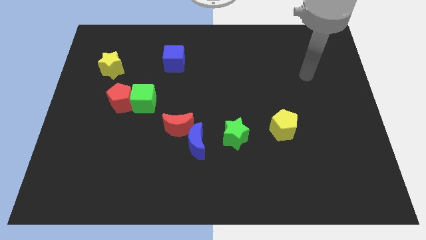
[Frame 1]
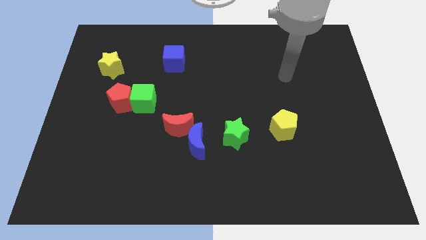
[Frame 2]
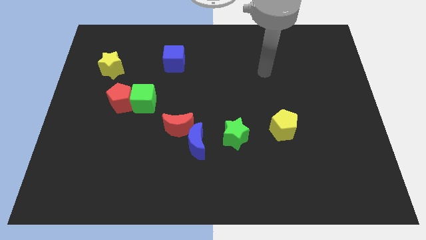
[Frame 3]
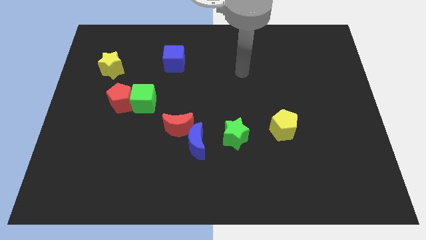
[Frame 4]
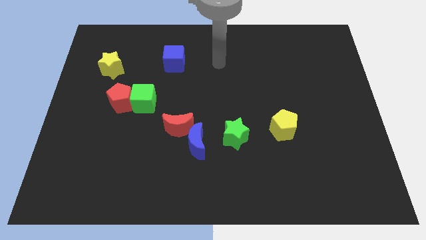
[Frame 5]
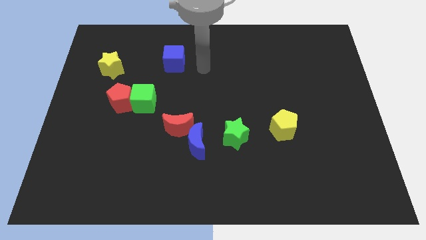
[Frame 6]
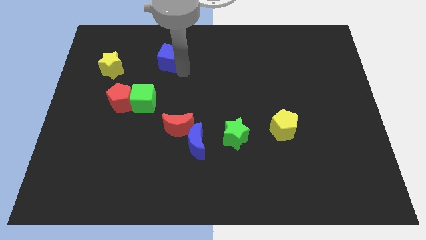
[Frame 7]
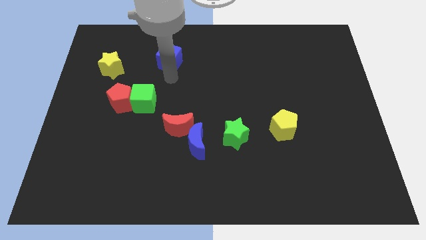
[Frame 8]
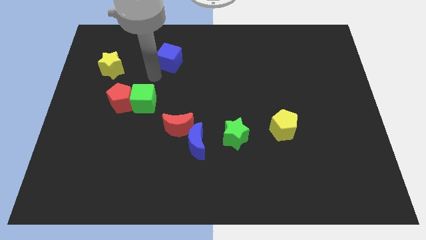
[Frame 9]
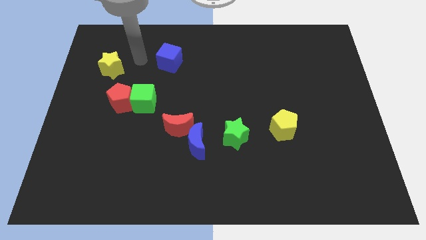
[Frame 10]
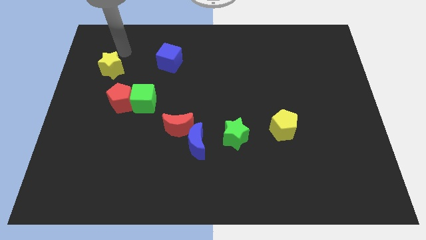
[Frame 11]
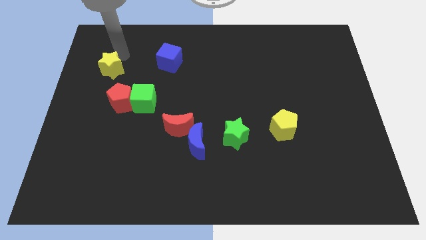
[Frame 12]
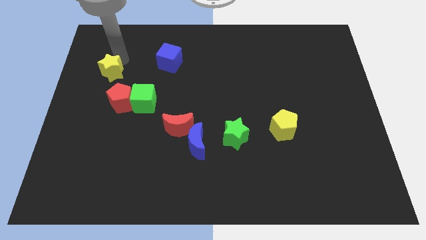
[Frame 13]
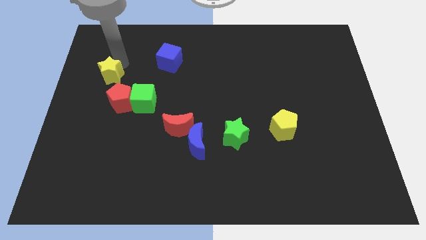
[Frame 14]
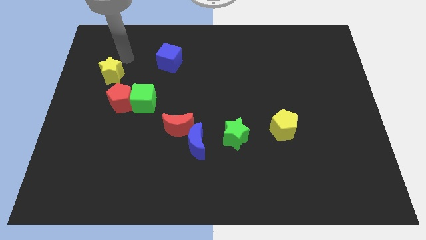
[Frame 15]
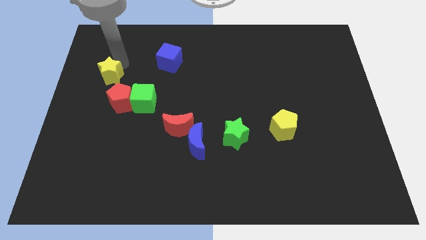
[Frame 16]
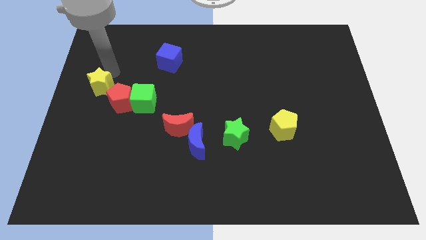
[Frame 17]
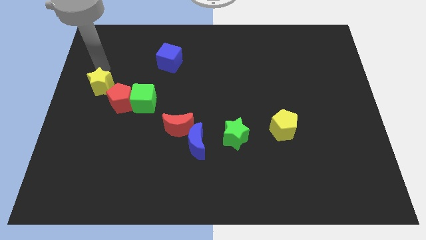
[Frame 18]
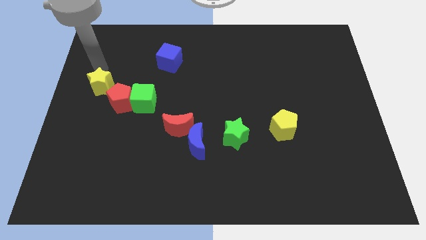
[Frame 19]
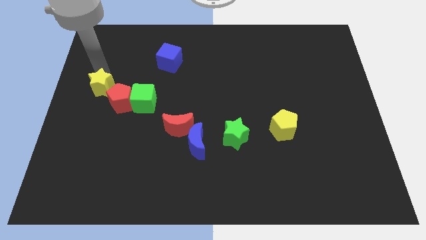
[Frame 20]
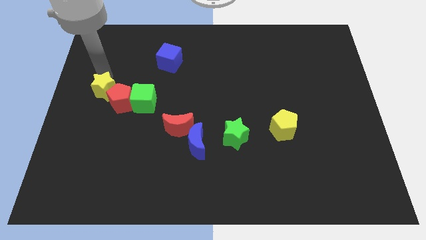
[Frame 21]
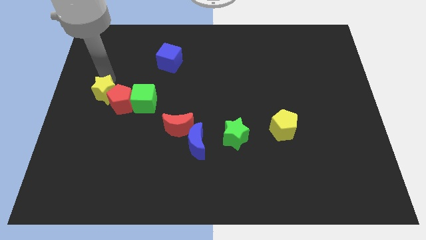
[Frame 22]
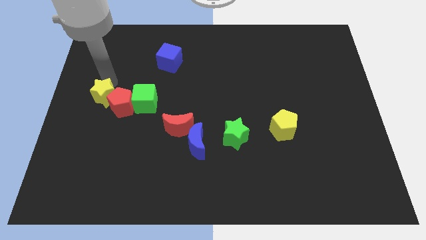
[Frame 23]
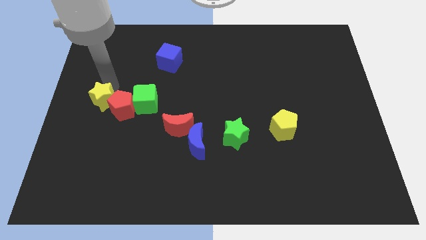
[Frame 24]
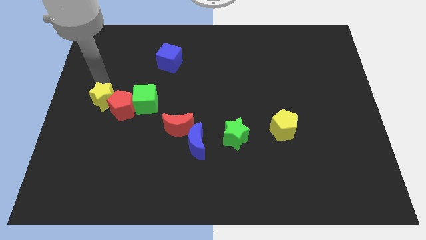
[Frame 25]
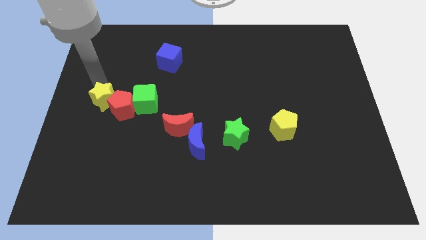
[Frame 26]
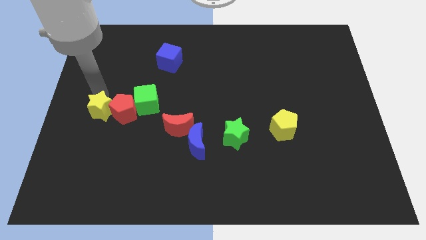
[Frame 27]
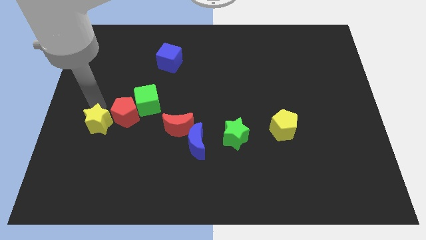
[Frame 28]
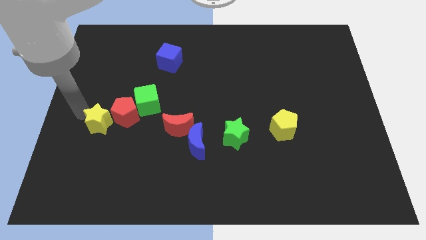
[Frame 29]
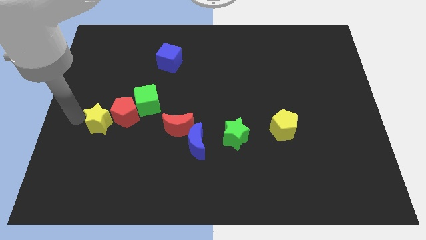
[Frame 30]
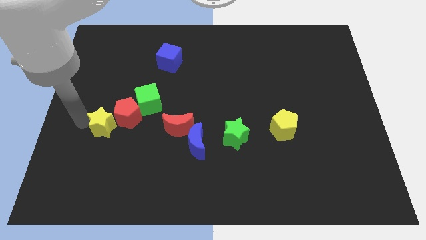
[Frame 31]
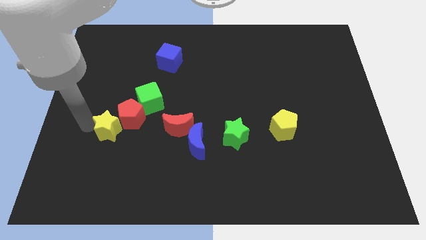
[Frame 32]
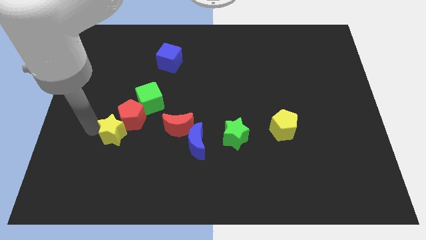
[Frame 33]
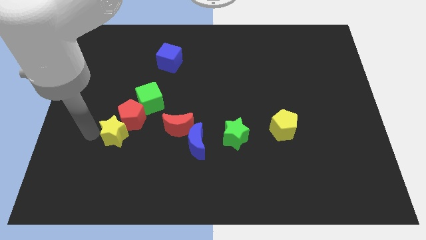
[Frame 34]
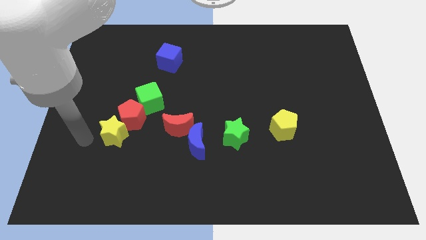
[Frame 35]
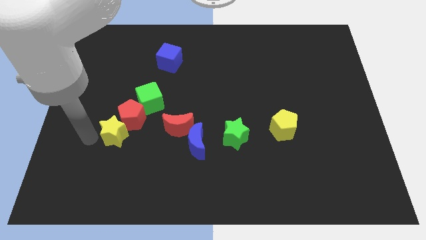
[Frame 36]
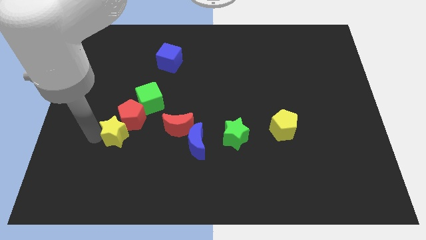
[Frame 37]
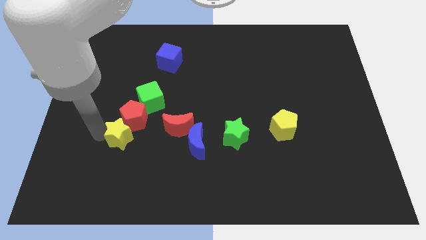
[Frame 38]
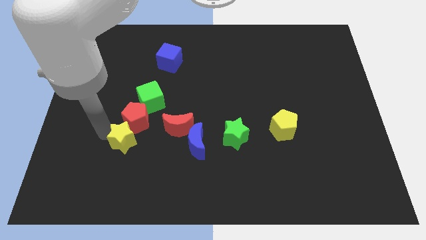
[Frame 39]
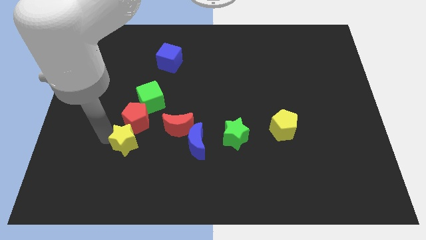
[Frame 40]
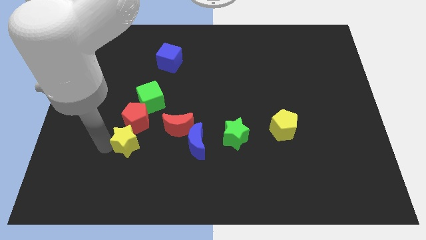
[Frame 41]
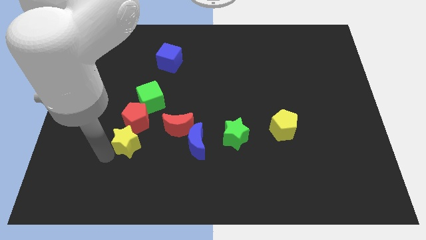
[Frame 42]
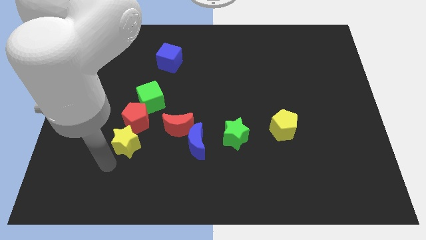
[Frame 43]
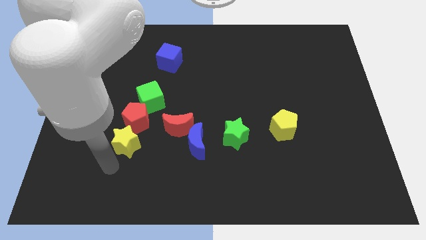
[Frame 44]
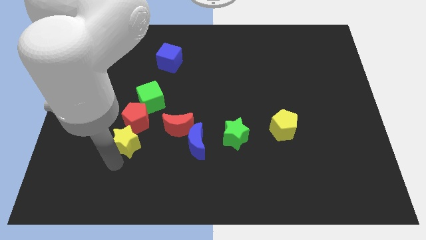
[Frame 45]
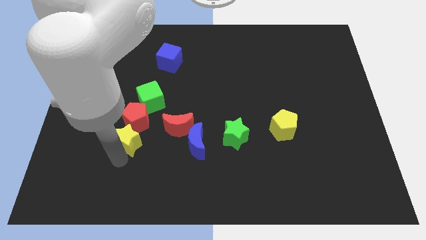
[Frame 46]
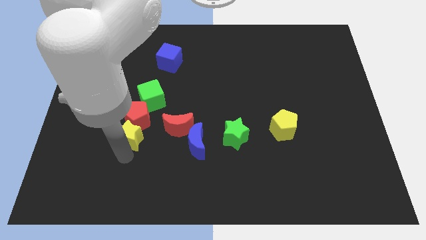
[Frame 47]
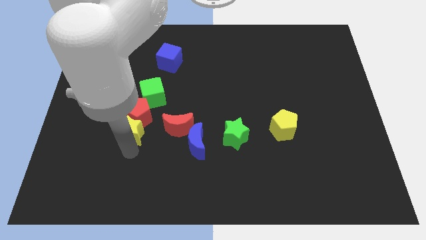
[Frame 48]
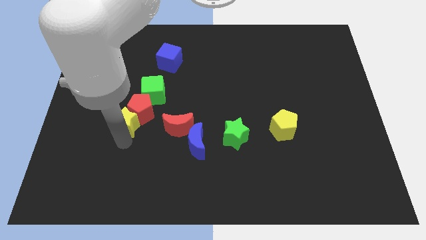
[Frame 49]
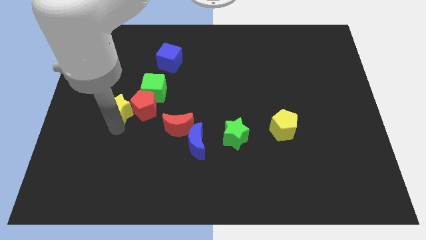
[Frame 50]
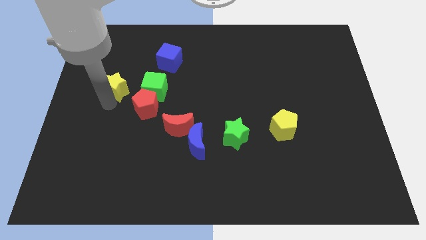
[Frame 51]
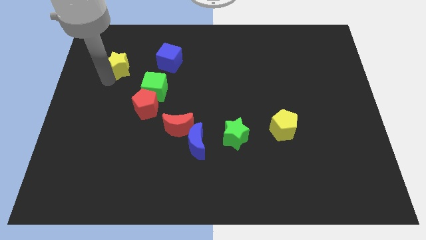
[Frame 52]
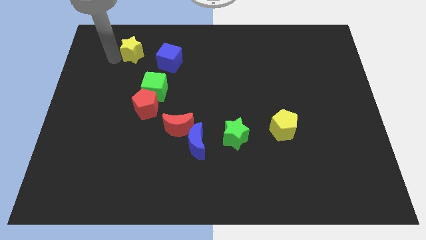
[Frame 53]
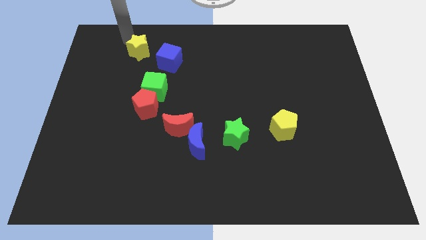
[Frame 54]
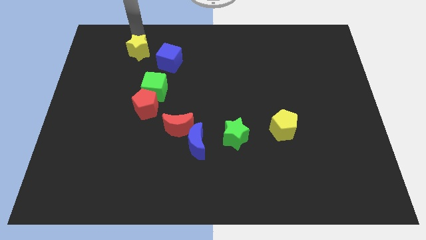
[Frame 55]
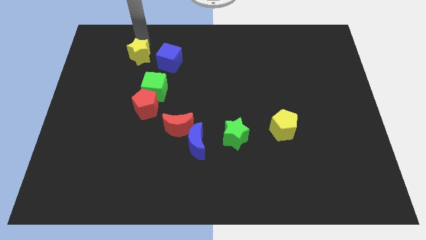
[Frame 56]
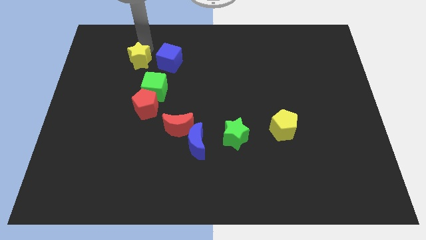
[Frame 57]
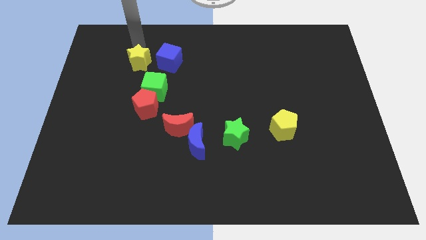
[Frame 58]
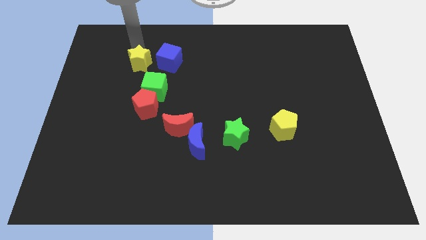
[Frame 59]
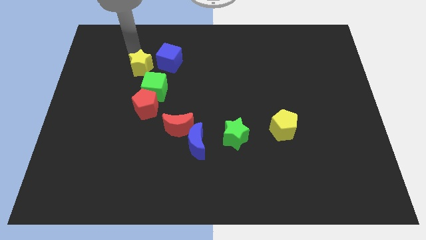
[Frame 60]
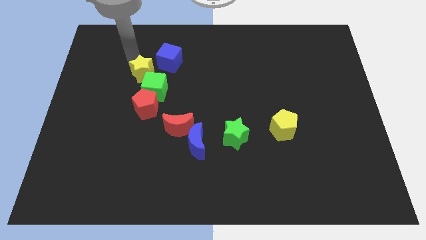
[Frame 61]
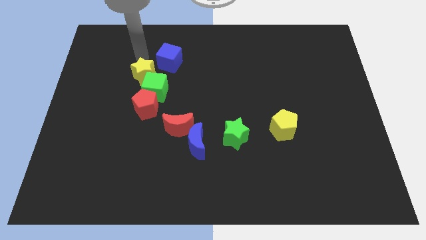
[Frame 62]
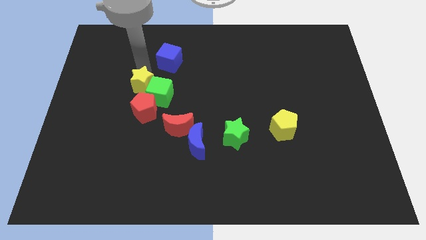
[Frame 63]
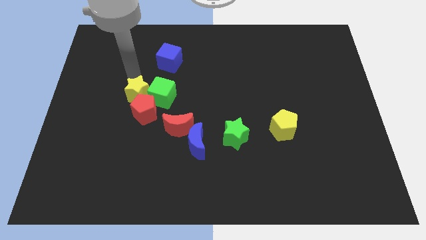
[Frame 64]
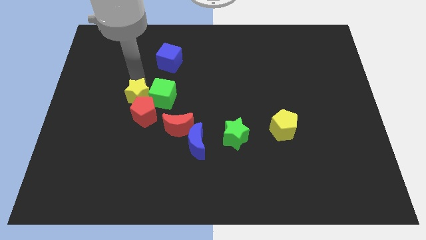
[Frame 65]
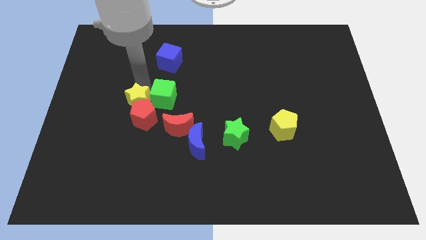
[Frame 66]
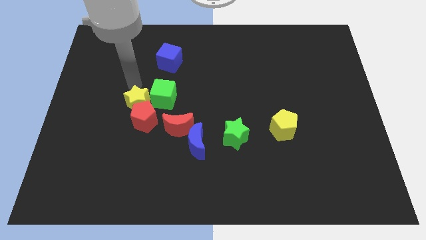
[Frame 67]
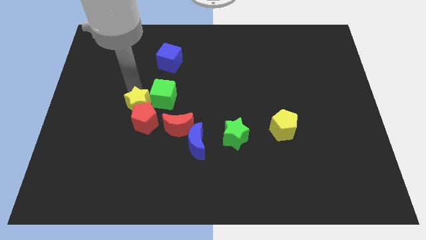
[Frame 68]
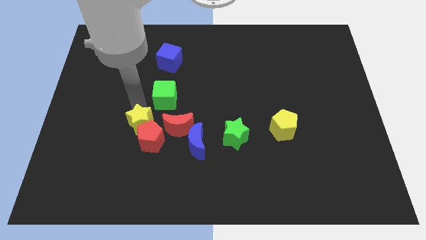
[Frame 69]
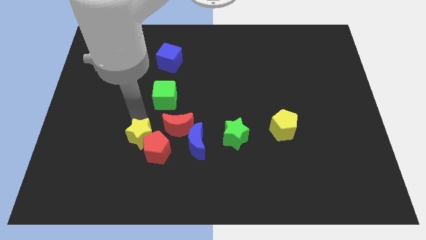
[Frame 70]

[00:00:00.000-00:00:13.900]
move the yellow star to the bottom left side of the red moon
